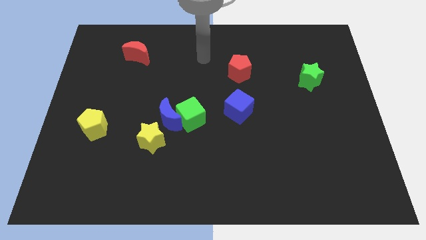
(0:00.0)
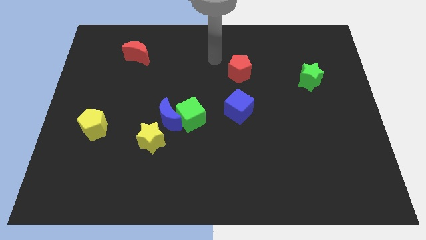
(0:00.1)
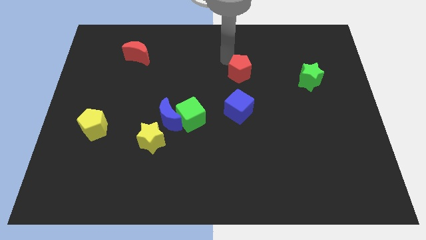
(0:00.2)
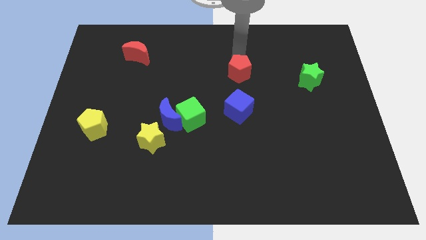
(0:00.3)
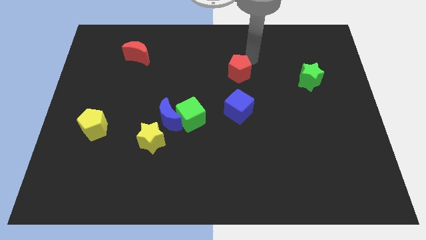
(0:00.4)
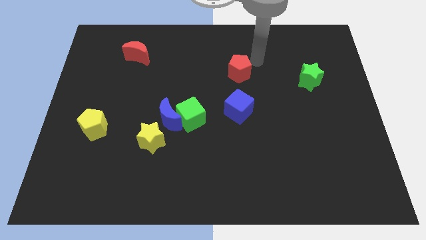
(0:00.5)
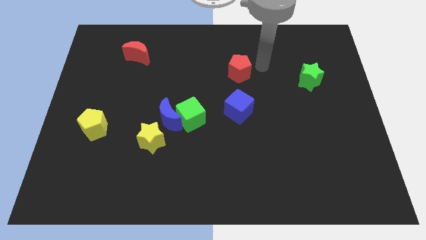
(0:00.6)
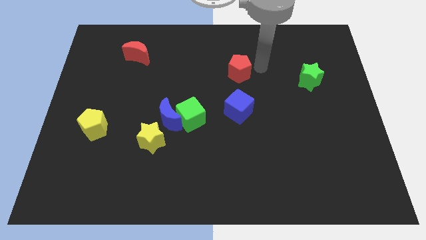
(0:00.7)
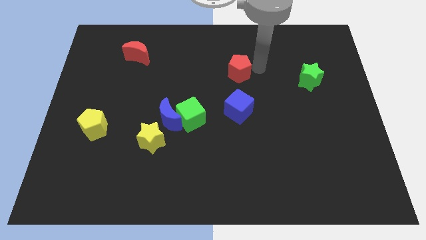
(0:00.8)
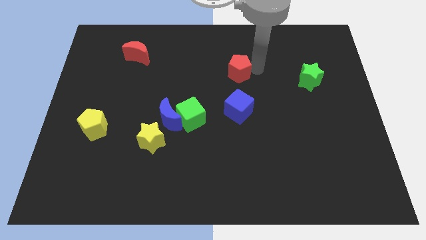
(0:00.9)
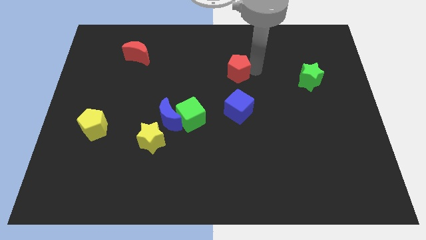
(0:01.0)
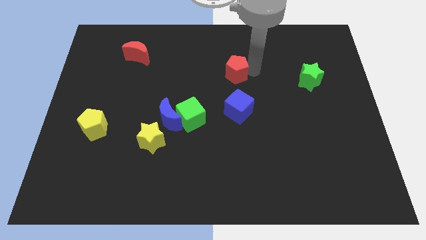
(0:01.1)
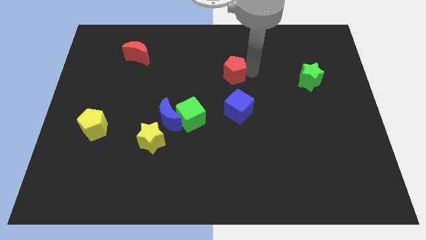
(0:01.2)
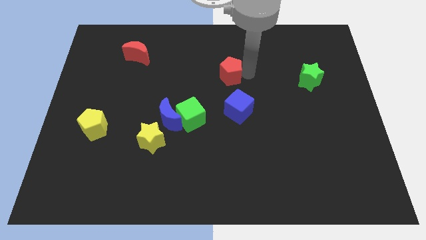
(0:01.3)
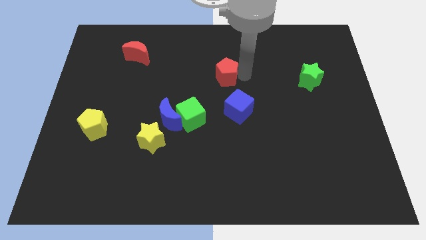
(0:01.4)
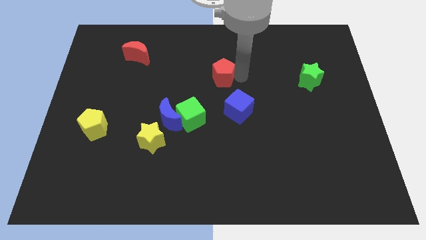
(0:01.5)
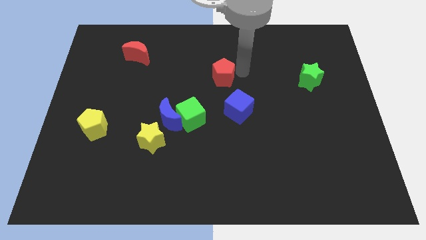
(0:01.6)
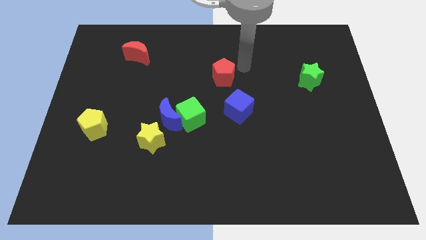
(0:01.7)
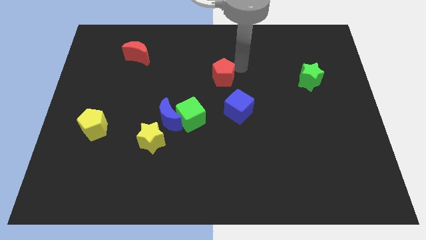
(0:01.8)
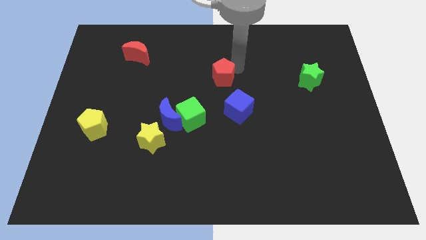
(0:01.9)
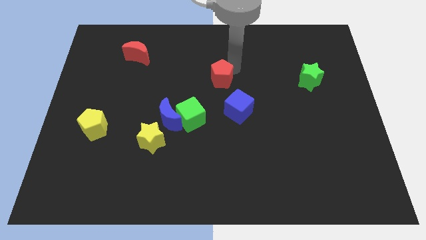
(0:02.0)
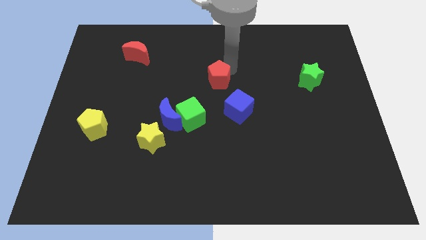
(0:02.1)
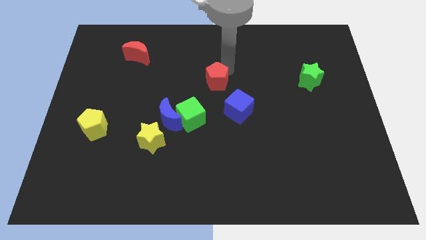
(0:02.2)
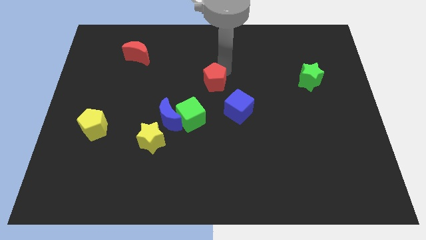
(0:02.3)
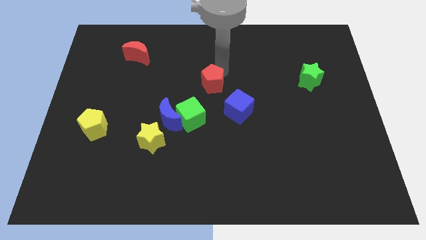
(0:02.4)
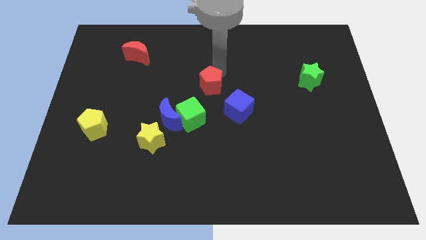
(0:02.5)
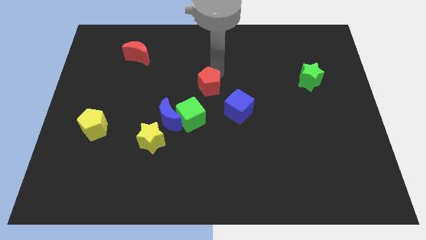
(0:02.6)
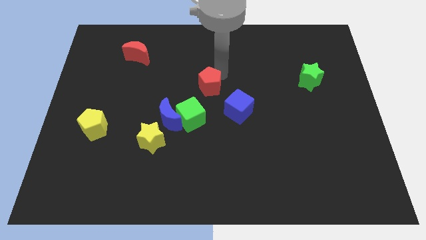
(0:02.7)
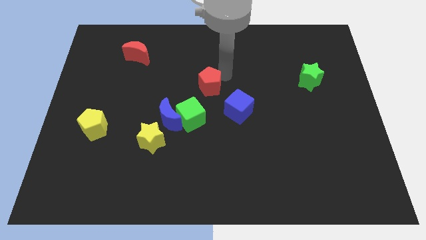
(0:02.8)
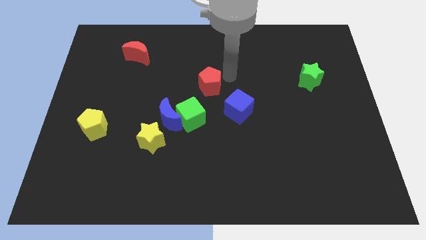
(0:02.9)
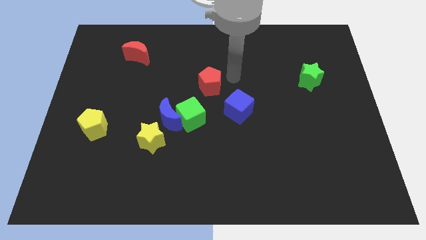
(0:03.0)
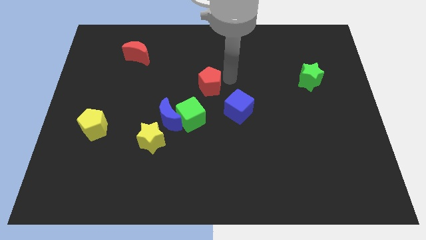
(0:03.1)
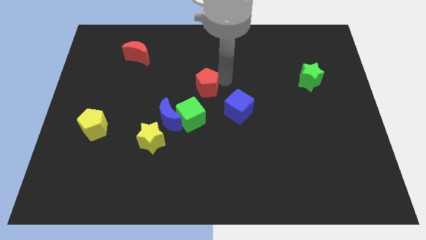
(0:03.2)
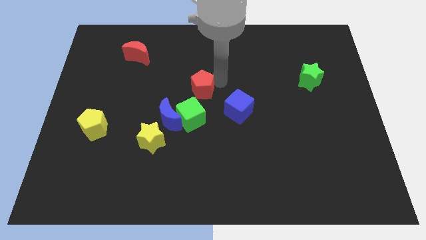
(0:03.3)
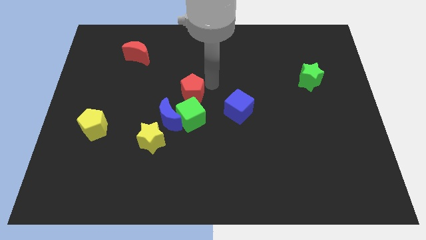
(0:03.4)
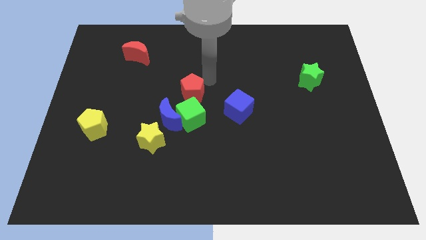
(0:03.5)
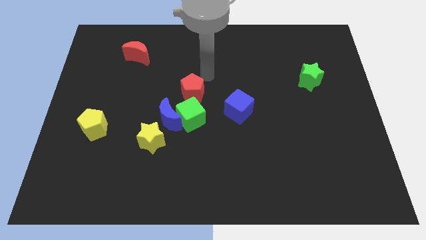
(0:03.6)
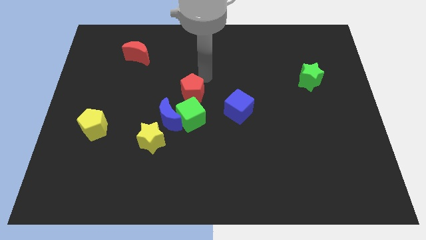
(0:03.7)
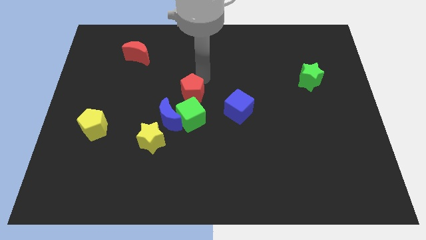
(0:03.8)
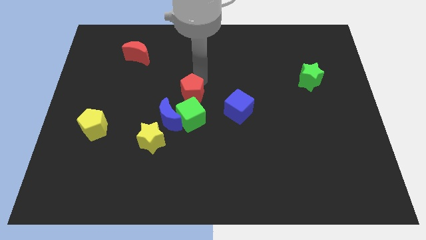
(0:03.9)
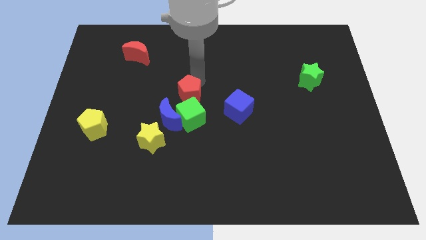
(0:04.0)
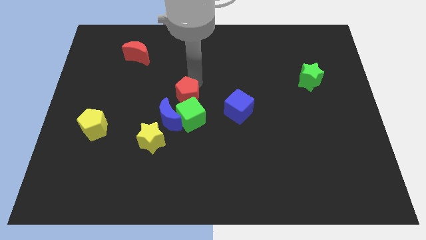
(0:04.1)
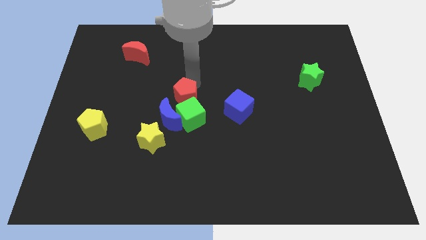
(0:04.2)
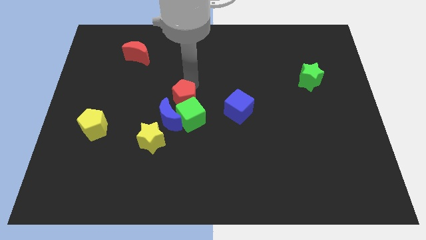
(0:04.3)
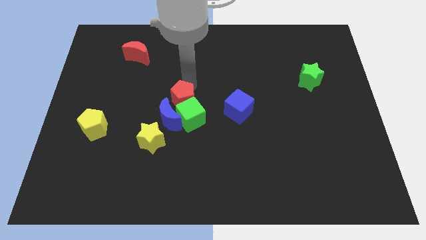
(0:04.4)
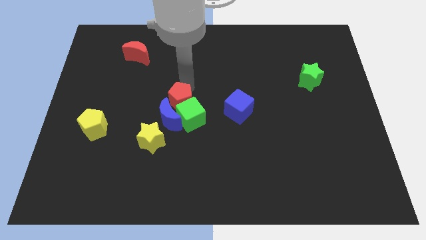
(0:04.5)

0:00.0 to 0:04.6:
move the red pentagon close to the blue moon

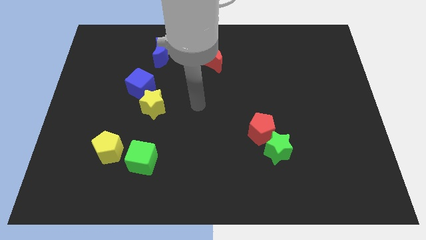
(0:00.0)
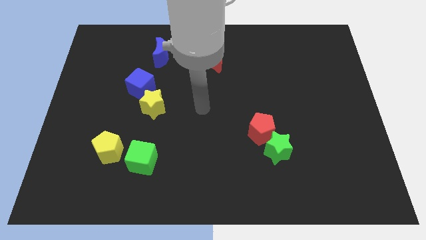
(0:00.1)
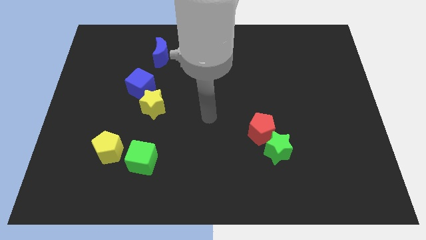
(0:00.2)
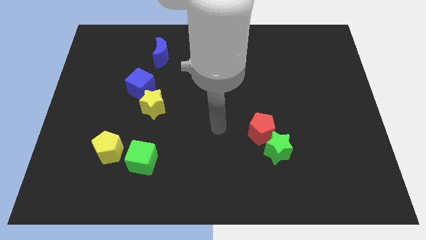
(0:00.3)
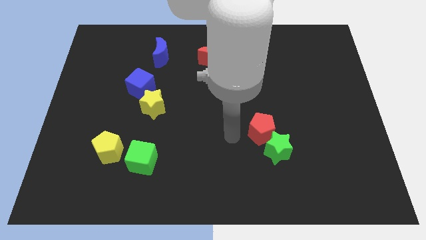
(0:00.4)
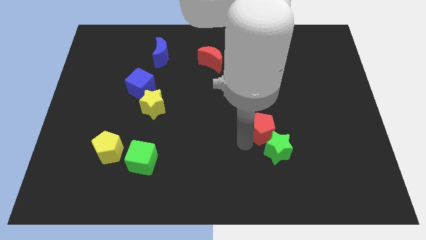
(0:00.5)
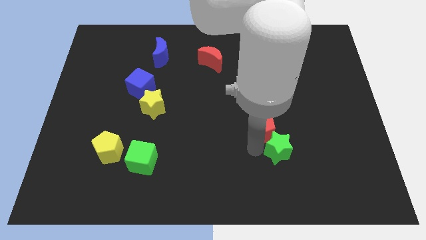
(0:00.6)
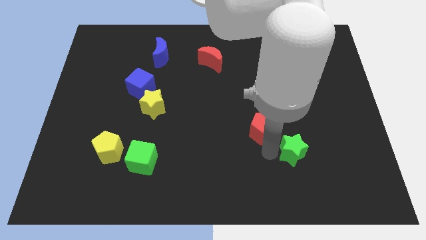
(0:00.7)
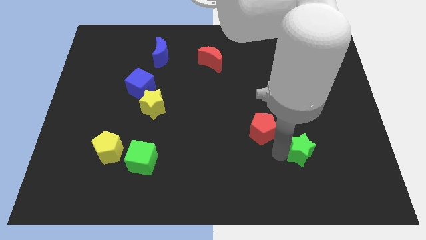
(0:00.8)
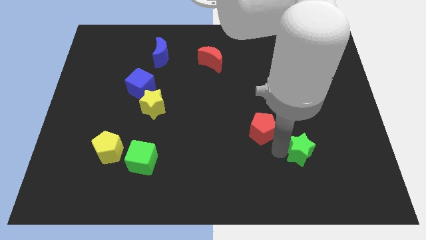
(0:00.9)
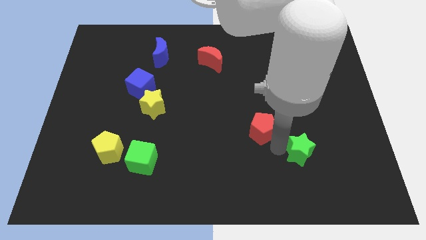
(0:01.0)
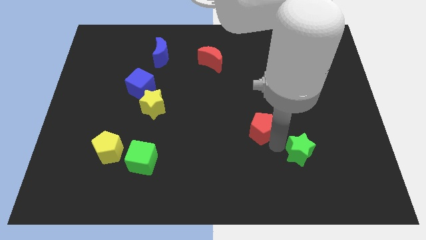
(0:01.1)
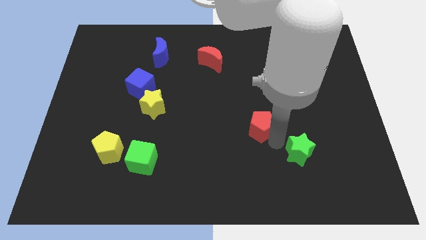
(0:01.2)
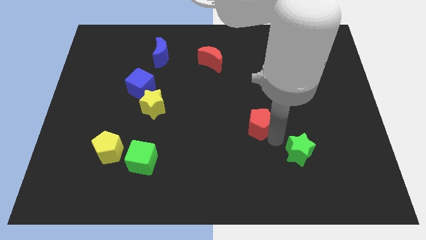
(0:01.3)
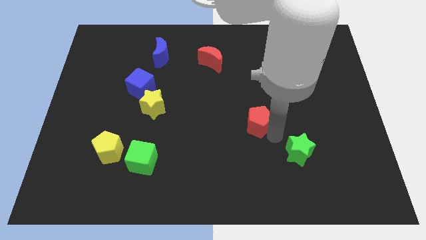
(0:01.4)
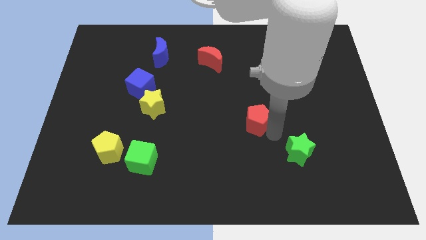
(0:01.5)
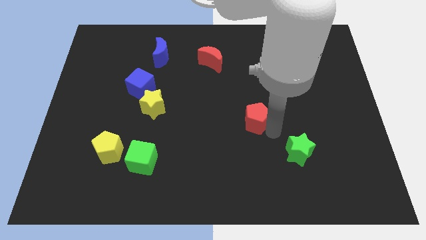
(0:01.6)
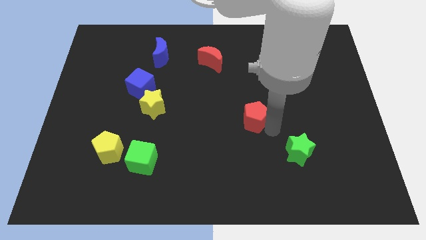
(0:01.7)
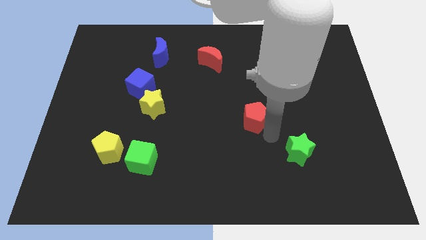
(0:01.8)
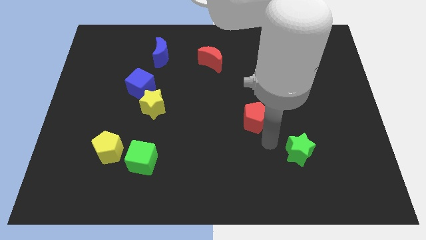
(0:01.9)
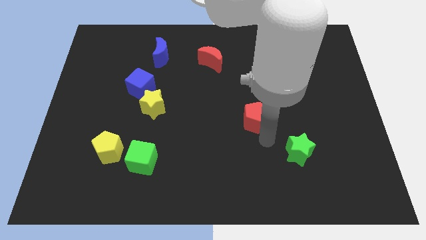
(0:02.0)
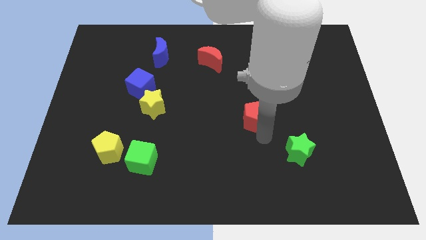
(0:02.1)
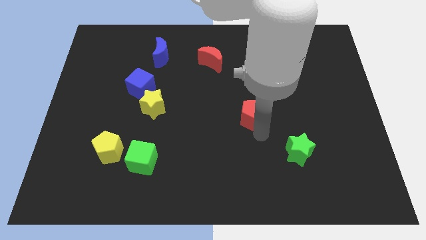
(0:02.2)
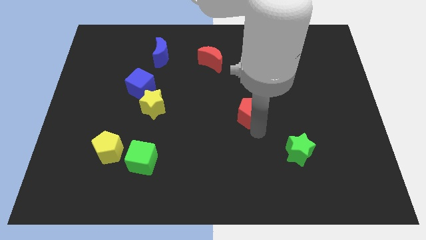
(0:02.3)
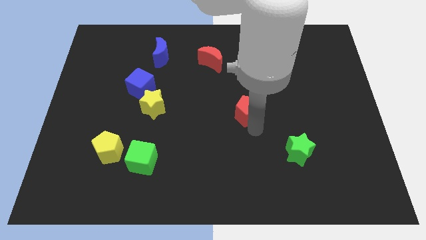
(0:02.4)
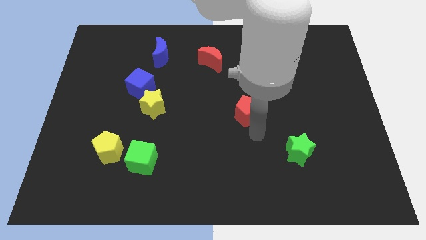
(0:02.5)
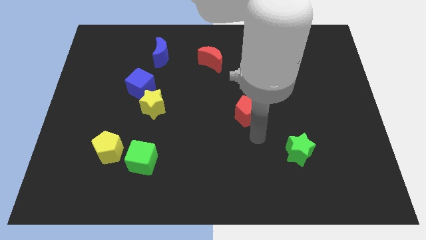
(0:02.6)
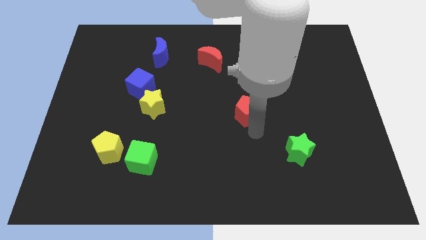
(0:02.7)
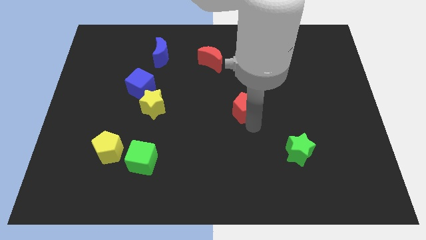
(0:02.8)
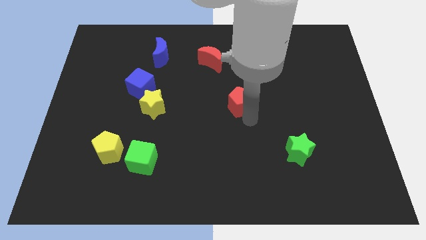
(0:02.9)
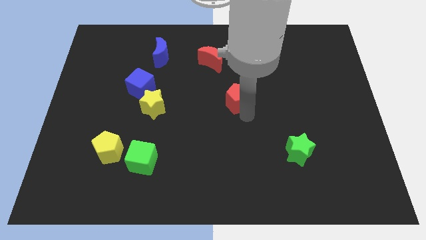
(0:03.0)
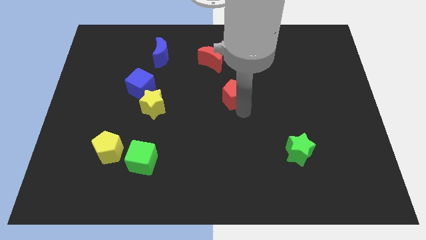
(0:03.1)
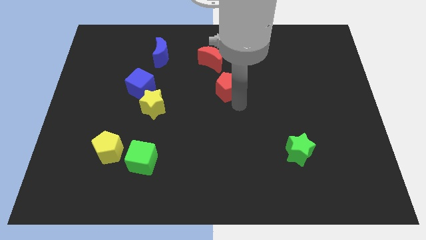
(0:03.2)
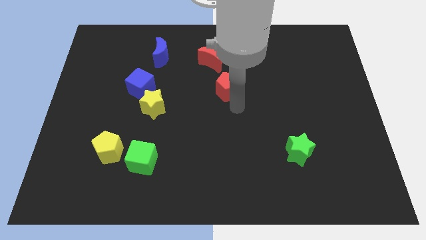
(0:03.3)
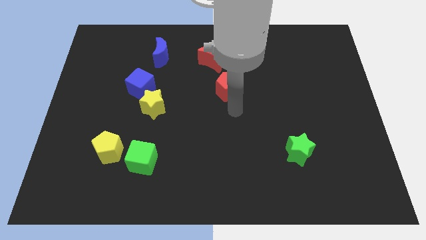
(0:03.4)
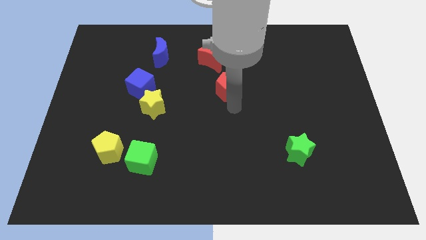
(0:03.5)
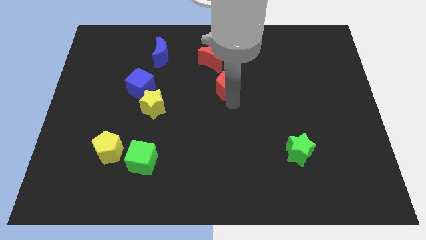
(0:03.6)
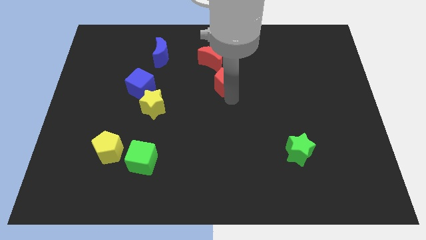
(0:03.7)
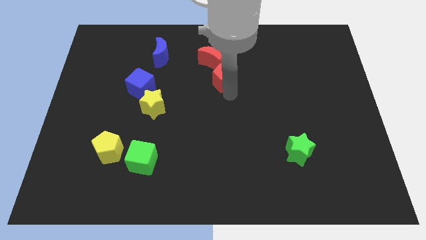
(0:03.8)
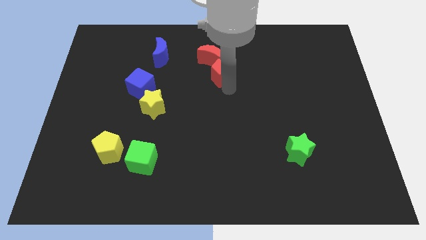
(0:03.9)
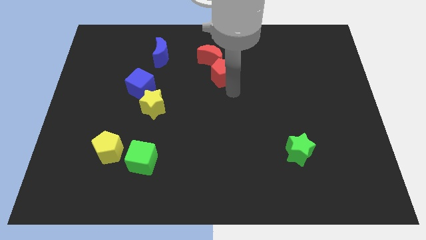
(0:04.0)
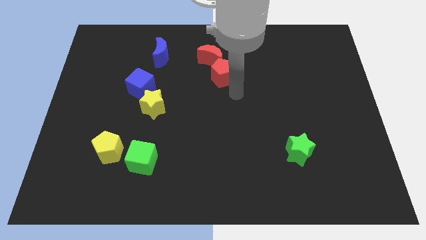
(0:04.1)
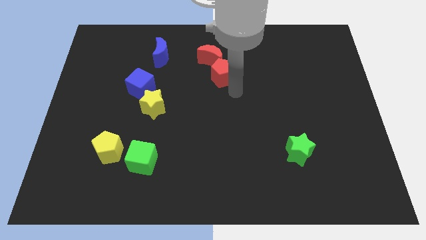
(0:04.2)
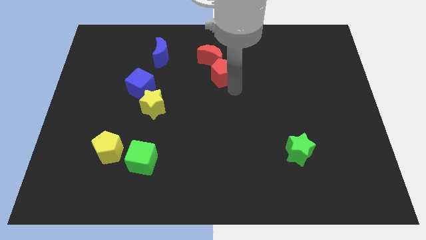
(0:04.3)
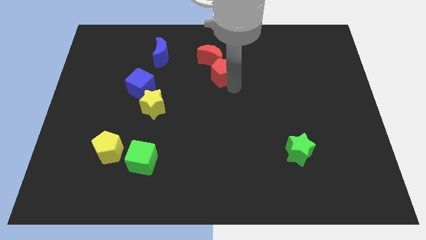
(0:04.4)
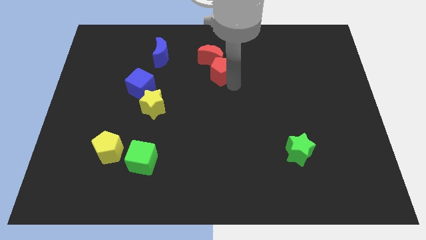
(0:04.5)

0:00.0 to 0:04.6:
put the red pentagon close to the red moon
